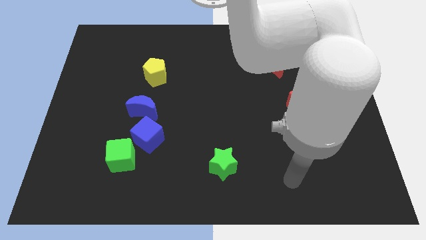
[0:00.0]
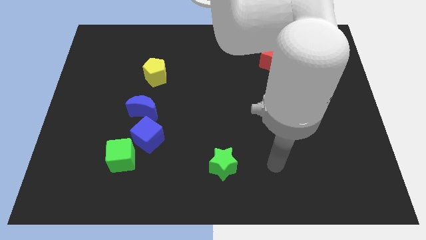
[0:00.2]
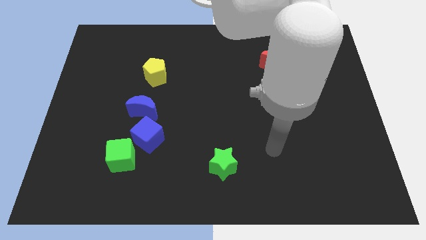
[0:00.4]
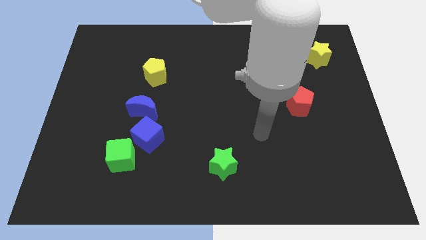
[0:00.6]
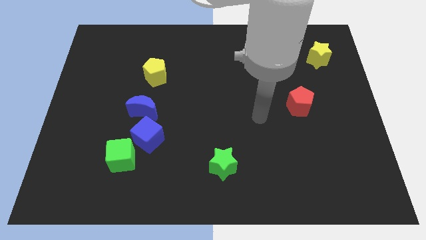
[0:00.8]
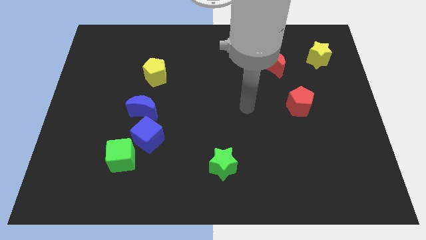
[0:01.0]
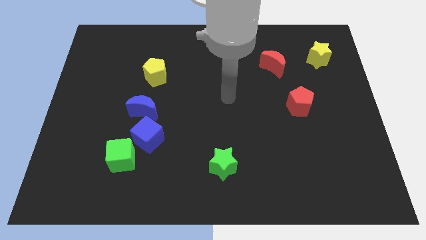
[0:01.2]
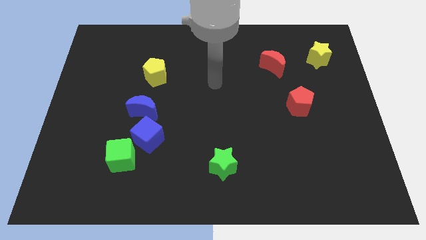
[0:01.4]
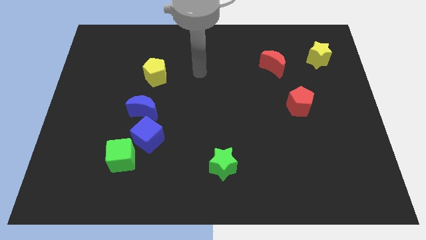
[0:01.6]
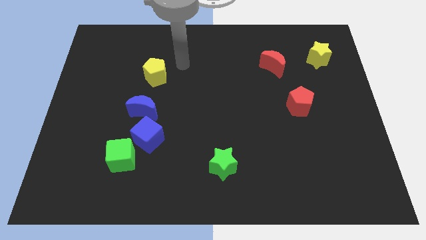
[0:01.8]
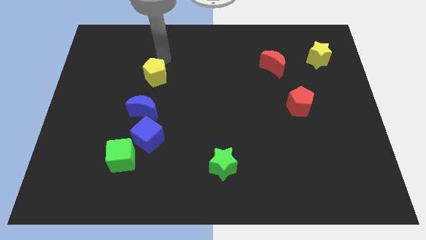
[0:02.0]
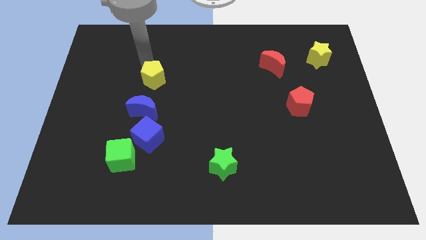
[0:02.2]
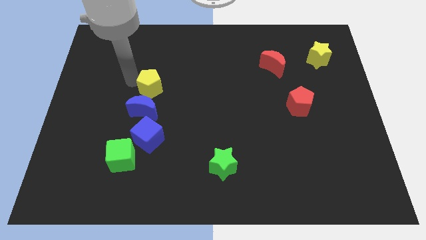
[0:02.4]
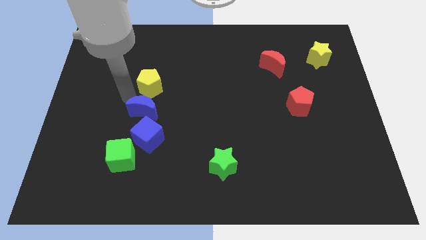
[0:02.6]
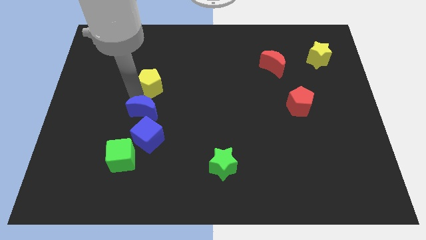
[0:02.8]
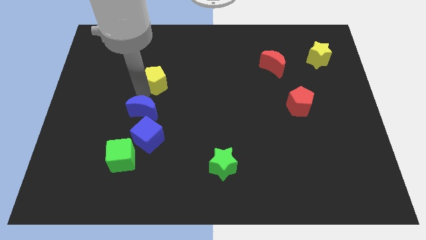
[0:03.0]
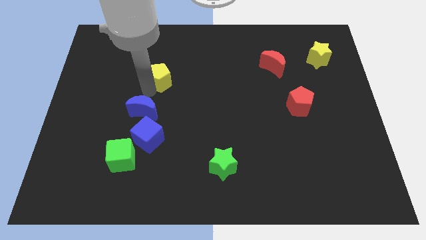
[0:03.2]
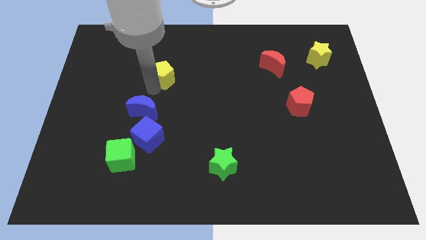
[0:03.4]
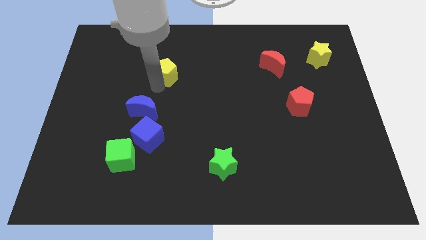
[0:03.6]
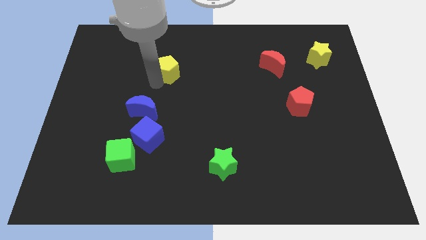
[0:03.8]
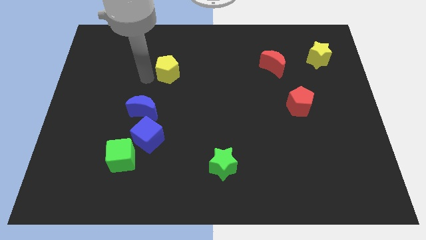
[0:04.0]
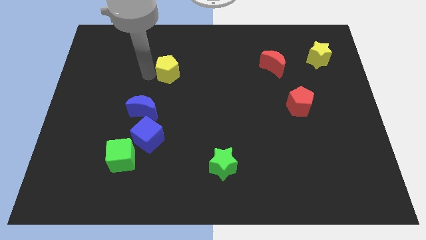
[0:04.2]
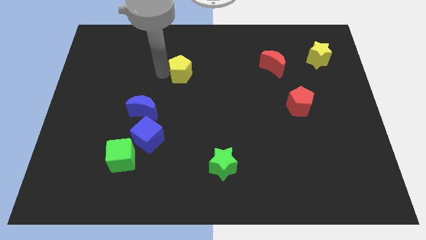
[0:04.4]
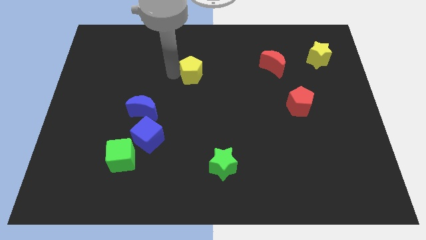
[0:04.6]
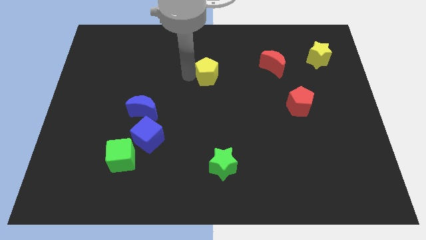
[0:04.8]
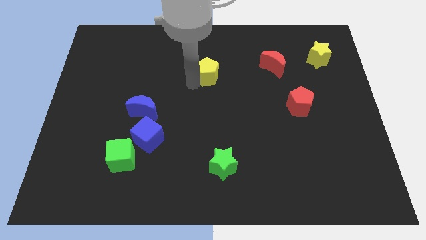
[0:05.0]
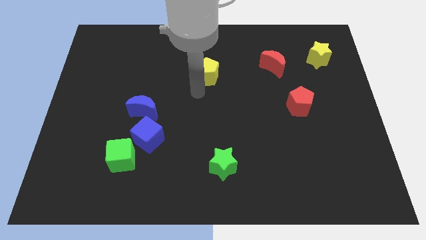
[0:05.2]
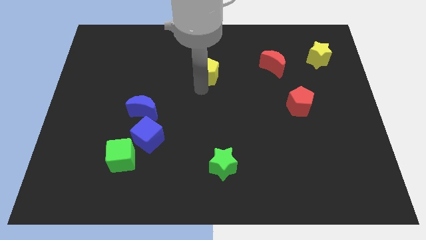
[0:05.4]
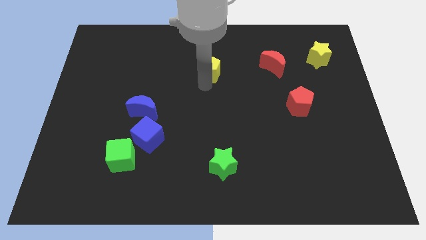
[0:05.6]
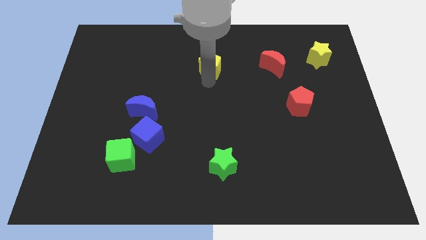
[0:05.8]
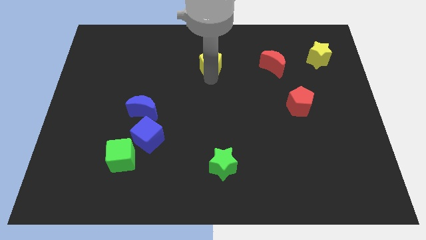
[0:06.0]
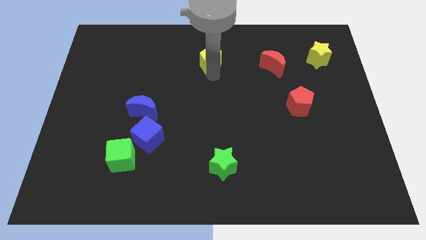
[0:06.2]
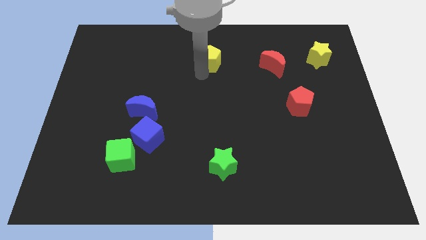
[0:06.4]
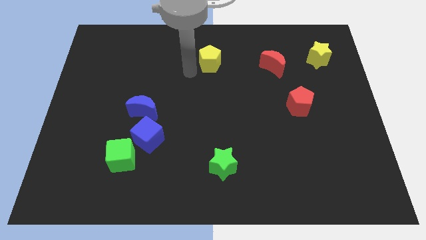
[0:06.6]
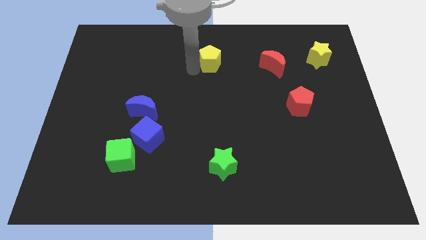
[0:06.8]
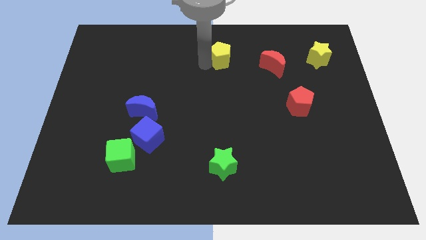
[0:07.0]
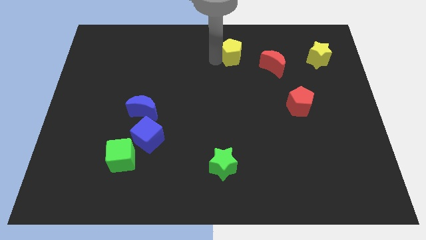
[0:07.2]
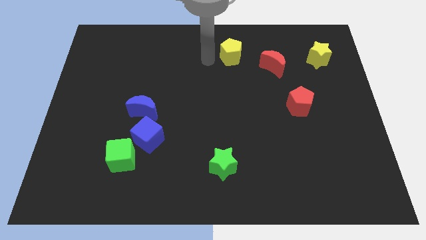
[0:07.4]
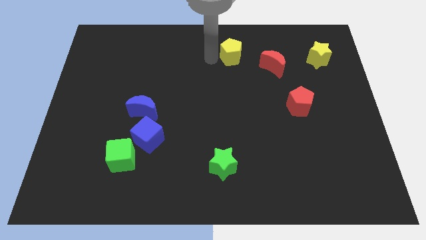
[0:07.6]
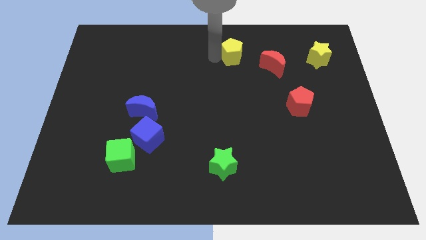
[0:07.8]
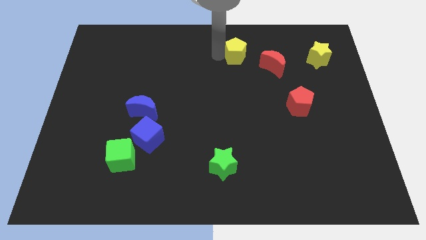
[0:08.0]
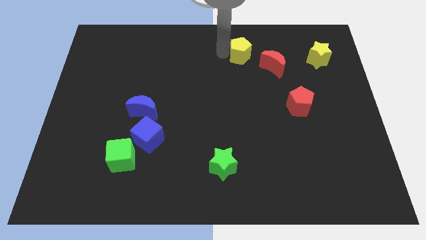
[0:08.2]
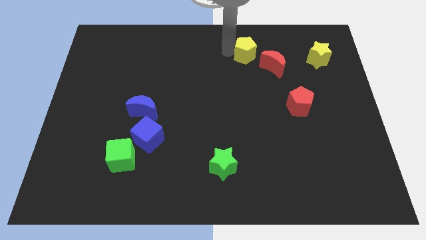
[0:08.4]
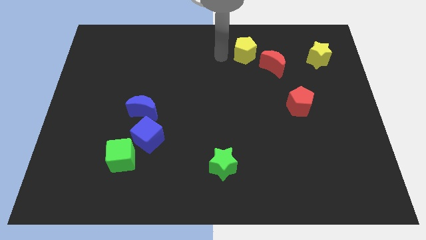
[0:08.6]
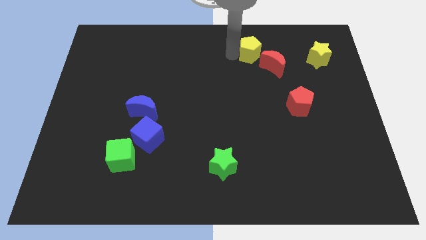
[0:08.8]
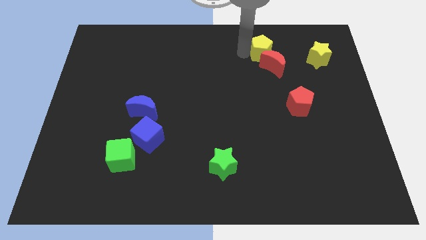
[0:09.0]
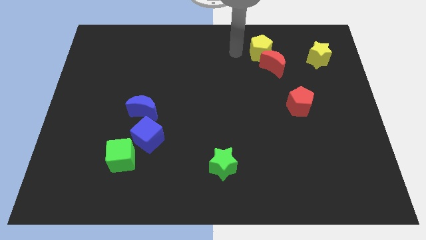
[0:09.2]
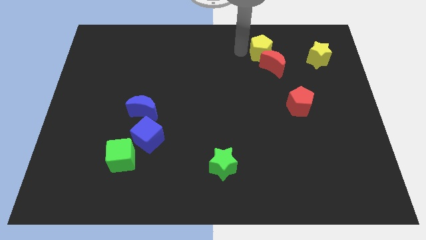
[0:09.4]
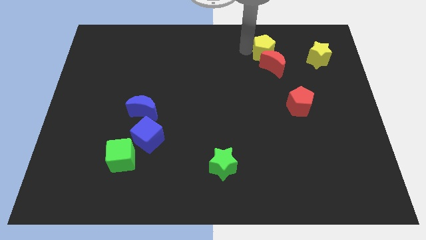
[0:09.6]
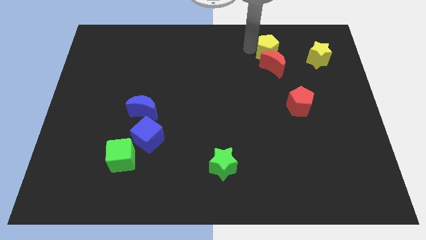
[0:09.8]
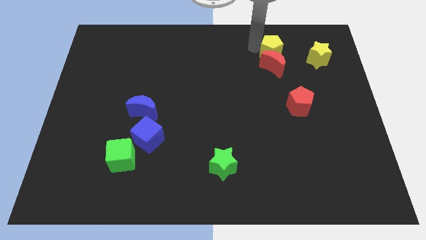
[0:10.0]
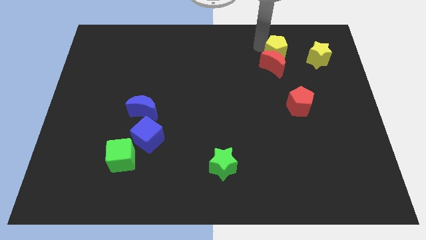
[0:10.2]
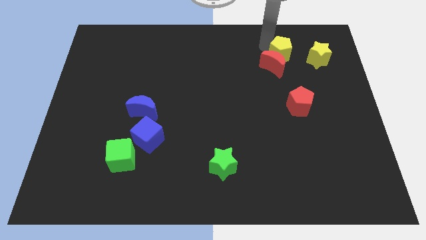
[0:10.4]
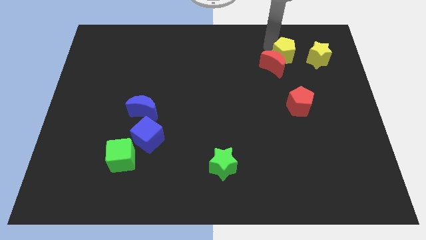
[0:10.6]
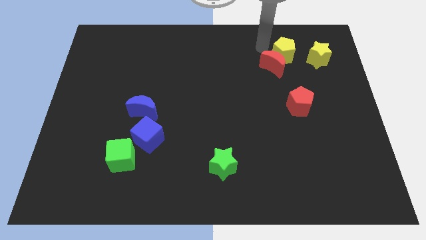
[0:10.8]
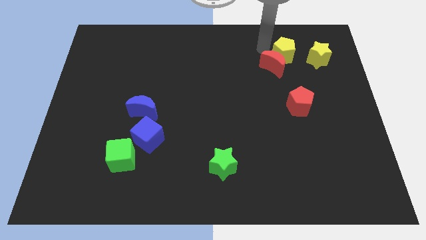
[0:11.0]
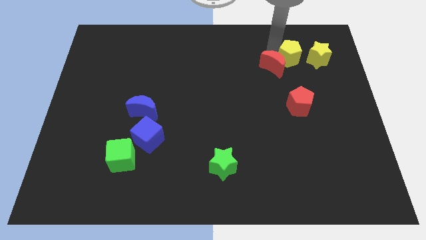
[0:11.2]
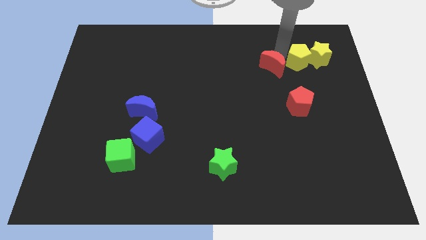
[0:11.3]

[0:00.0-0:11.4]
slide the yellow pentagon to the yellow star
